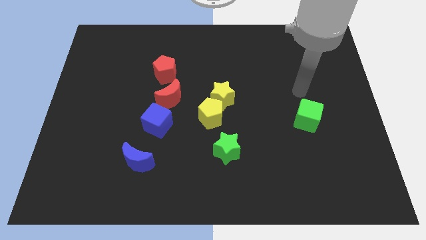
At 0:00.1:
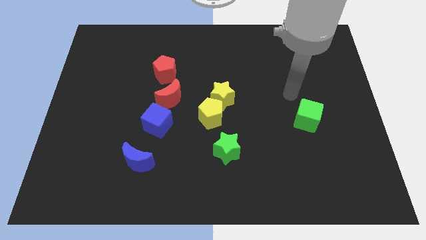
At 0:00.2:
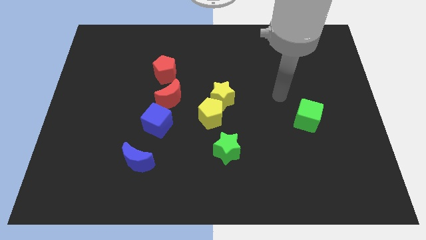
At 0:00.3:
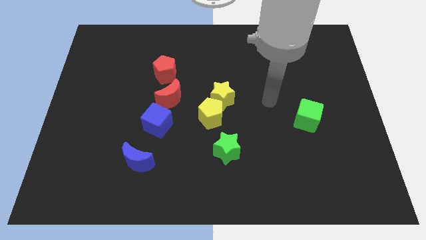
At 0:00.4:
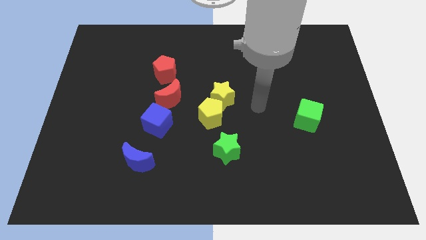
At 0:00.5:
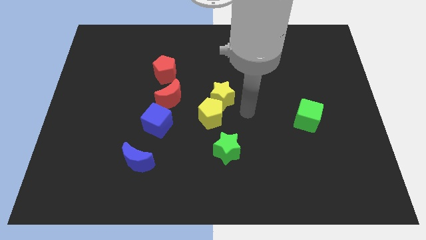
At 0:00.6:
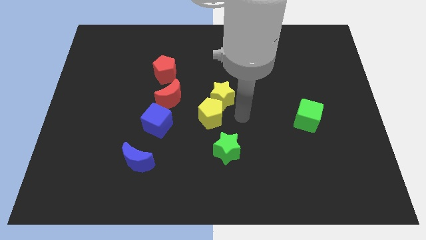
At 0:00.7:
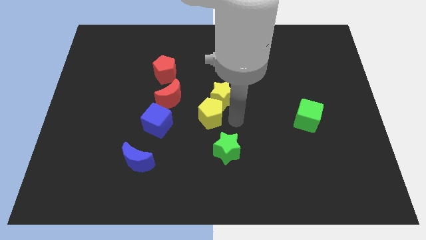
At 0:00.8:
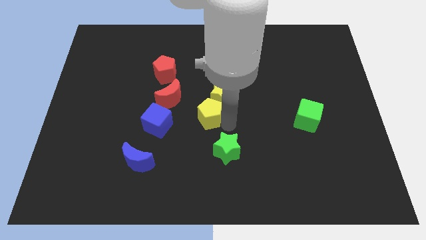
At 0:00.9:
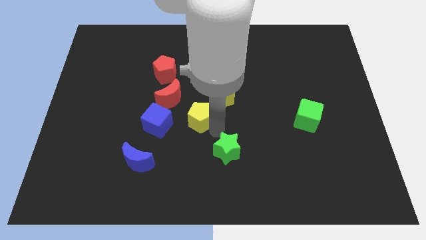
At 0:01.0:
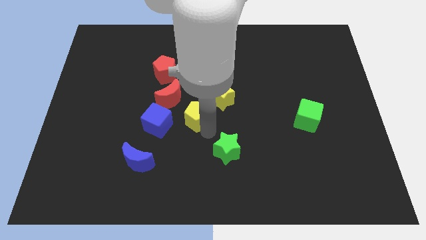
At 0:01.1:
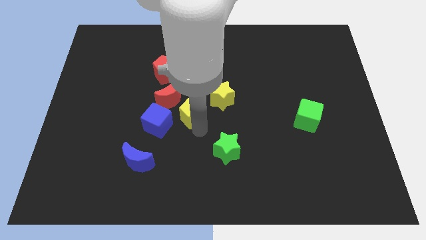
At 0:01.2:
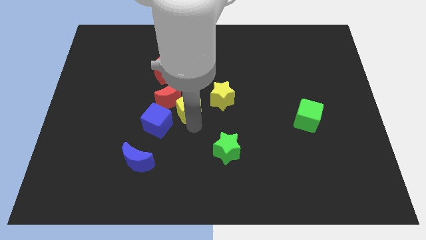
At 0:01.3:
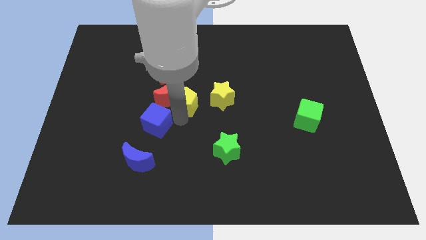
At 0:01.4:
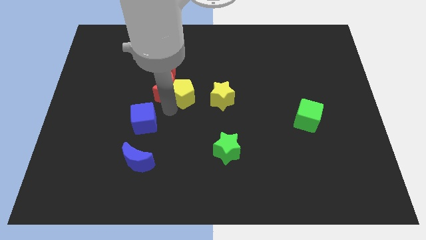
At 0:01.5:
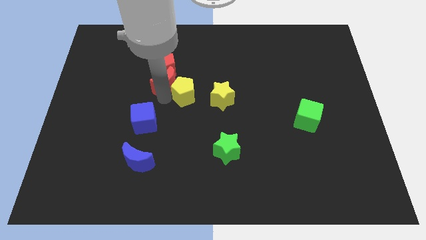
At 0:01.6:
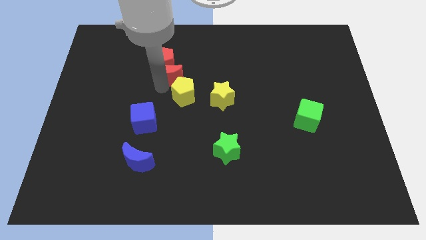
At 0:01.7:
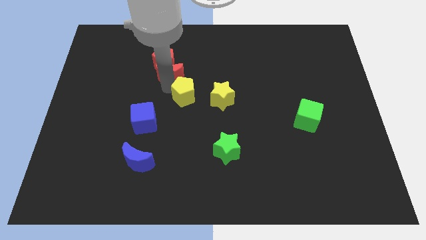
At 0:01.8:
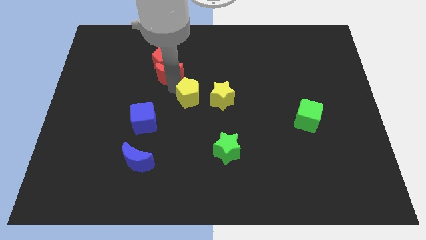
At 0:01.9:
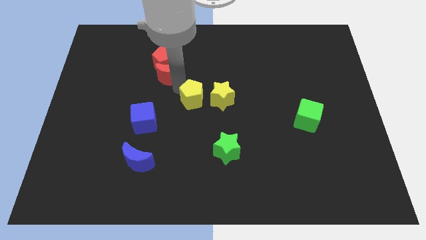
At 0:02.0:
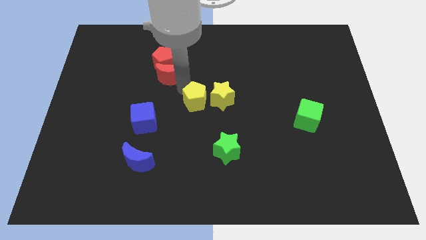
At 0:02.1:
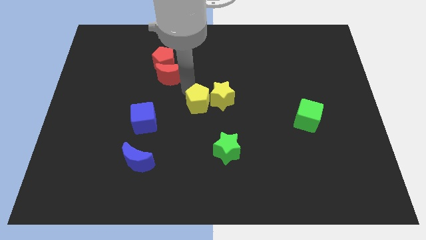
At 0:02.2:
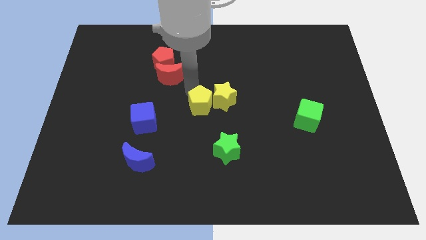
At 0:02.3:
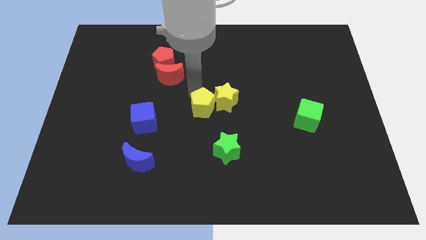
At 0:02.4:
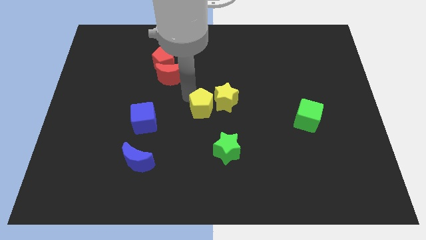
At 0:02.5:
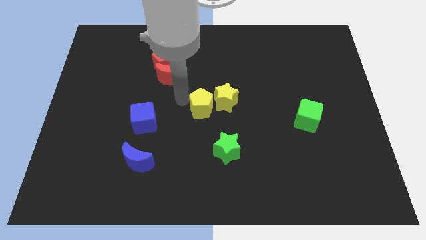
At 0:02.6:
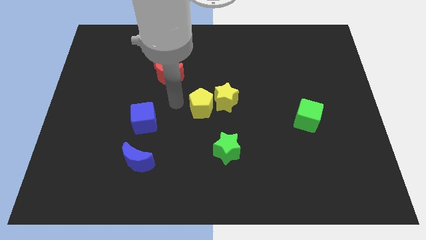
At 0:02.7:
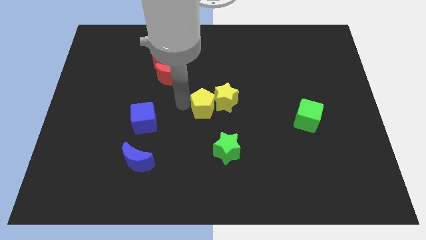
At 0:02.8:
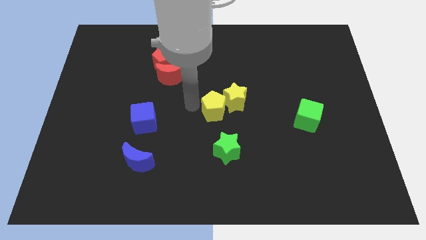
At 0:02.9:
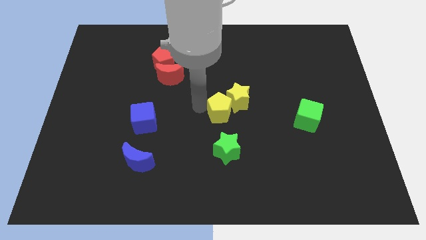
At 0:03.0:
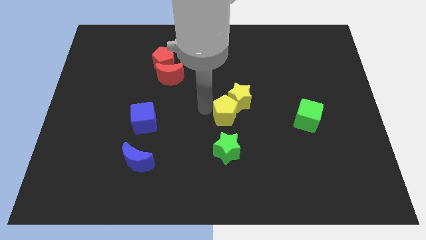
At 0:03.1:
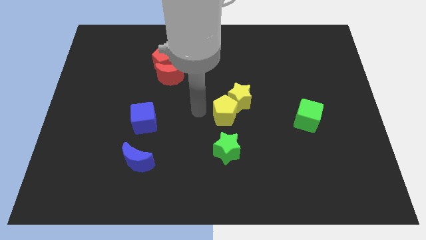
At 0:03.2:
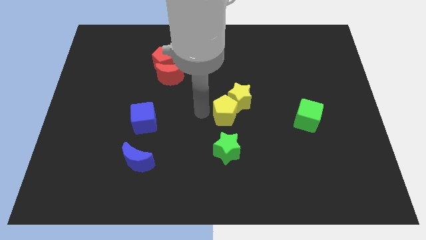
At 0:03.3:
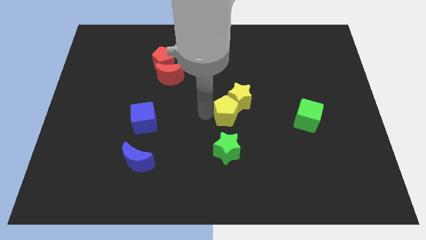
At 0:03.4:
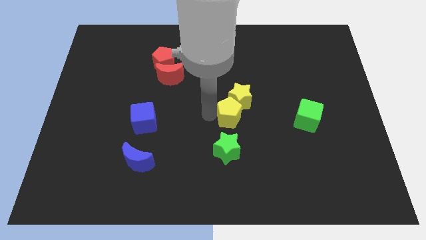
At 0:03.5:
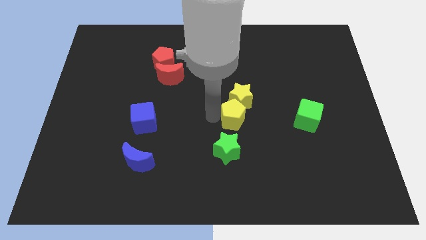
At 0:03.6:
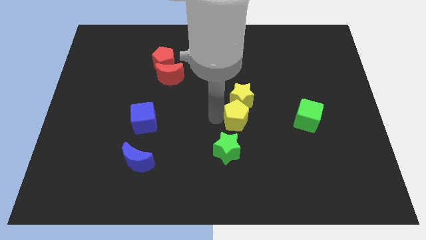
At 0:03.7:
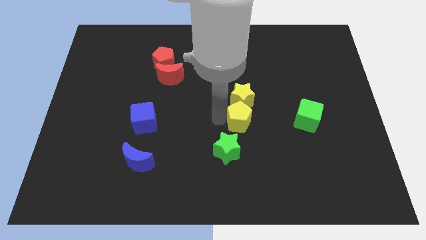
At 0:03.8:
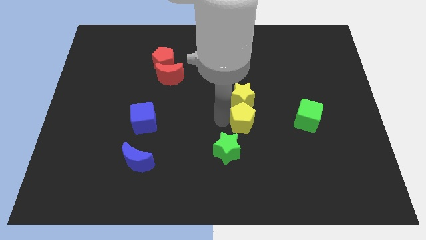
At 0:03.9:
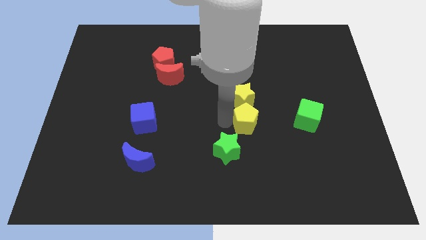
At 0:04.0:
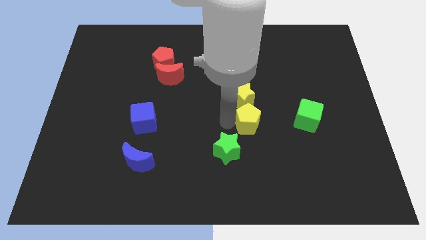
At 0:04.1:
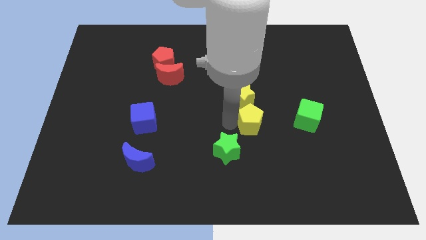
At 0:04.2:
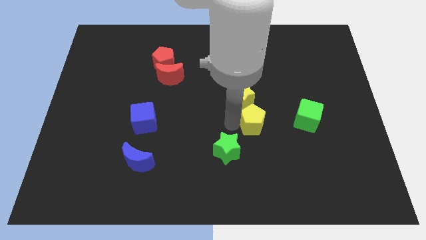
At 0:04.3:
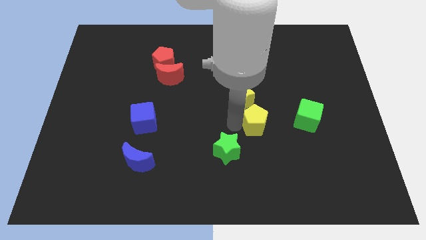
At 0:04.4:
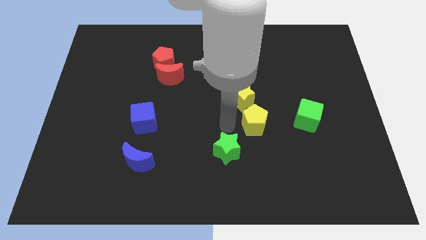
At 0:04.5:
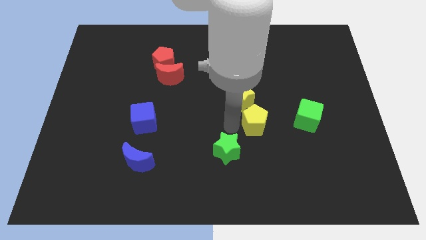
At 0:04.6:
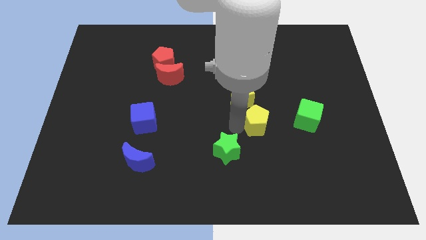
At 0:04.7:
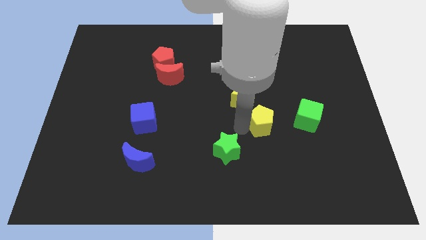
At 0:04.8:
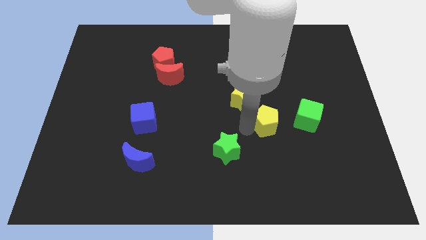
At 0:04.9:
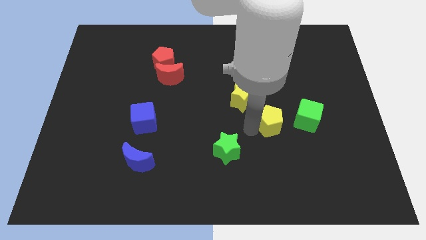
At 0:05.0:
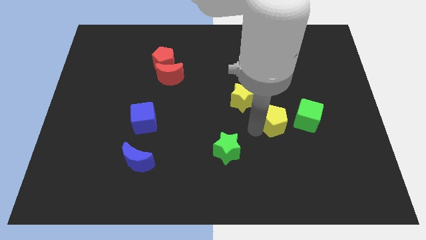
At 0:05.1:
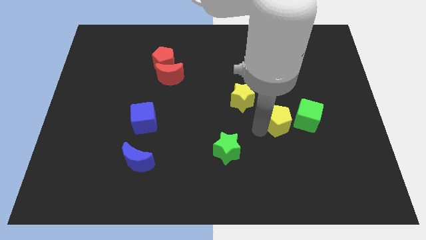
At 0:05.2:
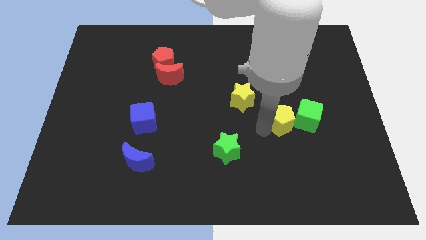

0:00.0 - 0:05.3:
slide the yellow pentagon next to the green cube

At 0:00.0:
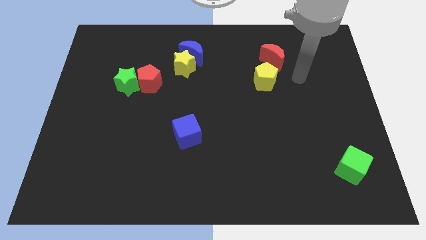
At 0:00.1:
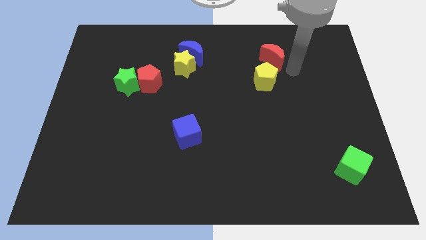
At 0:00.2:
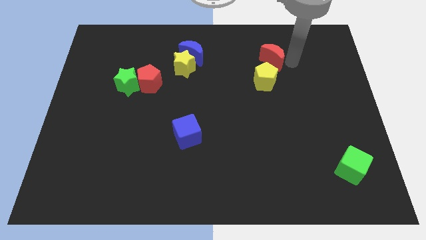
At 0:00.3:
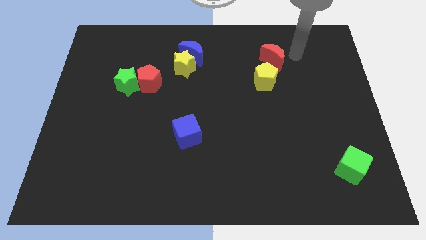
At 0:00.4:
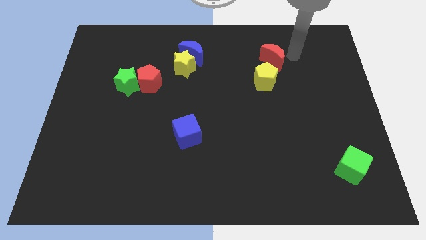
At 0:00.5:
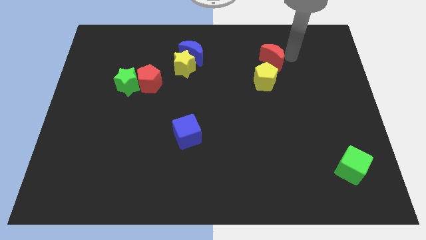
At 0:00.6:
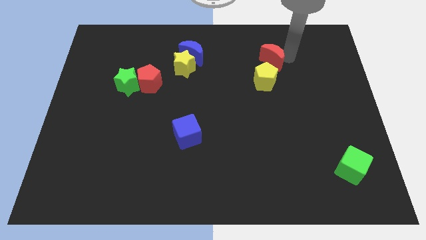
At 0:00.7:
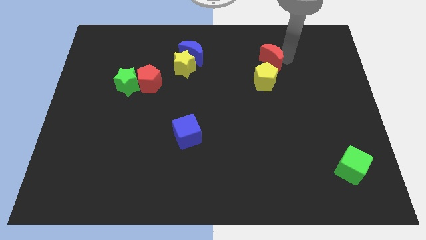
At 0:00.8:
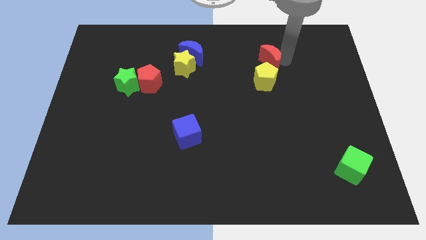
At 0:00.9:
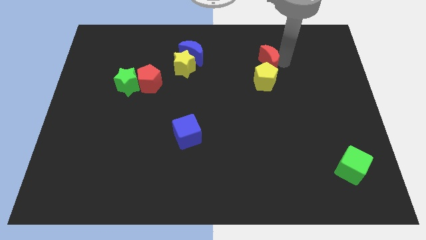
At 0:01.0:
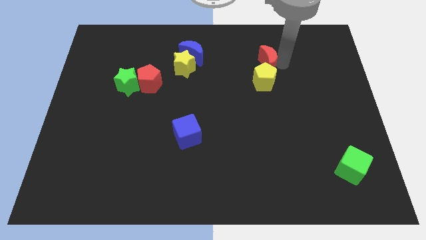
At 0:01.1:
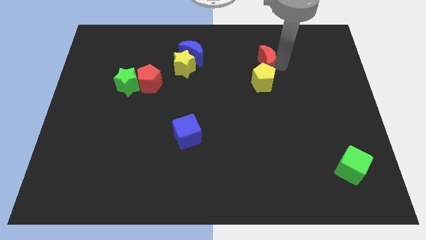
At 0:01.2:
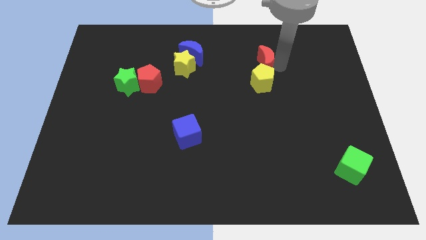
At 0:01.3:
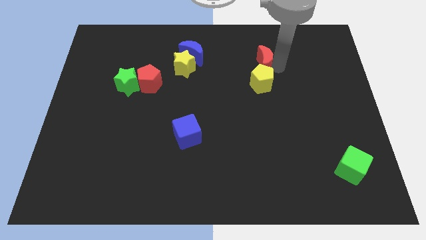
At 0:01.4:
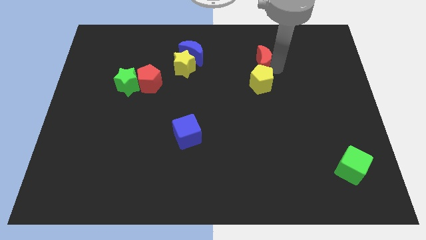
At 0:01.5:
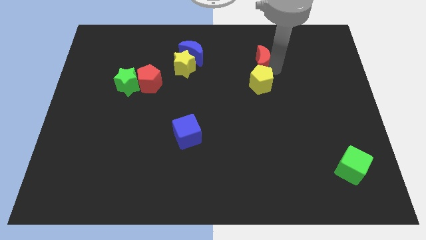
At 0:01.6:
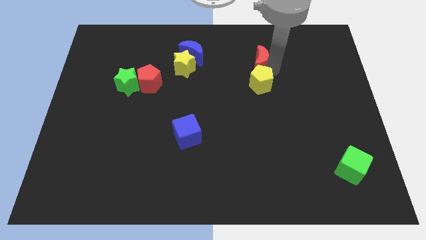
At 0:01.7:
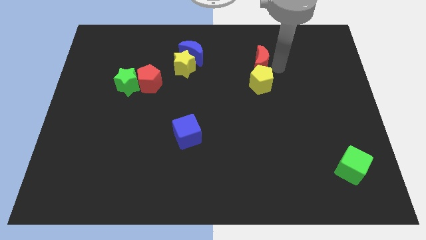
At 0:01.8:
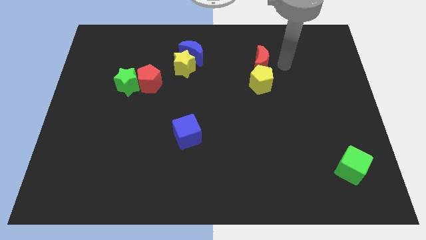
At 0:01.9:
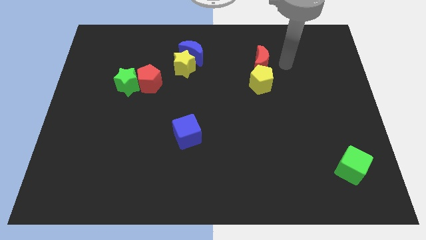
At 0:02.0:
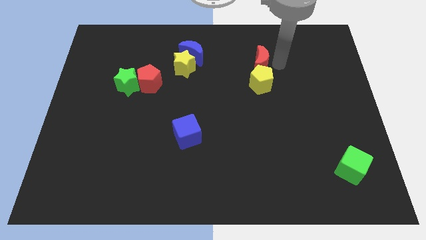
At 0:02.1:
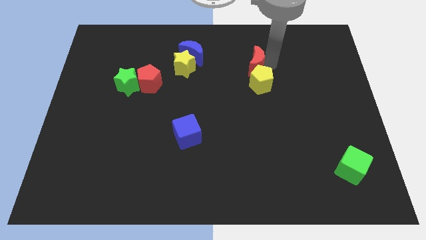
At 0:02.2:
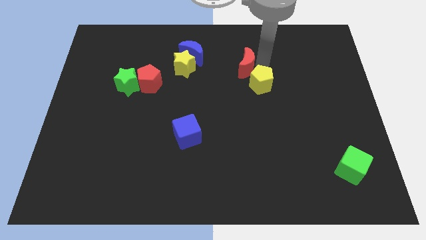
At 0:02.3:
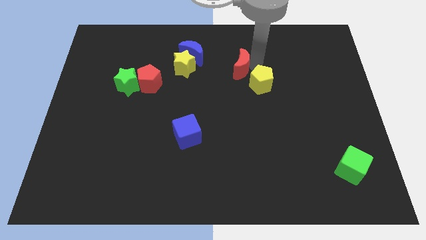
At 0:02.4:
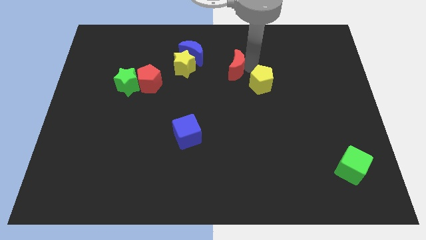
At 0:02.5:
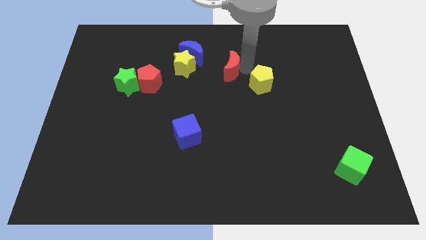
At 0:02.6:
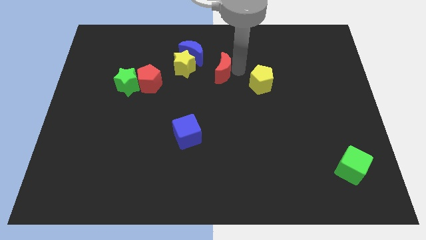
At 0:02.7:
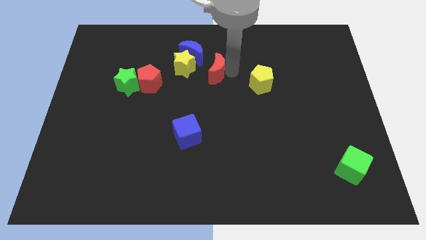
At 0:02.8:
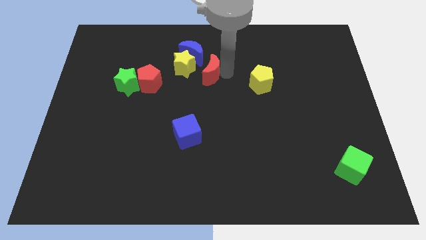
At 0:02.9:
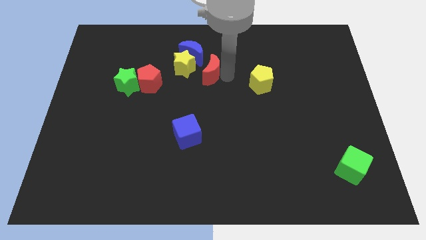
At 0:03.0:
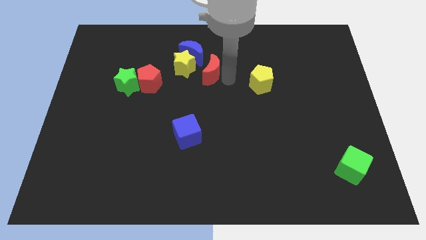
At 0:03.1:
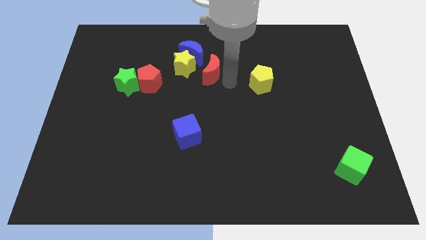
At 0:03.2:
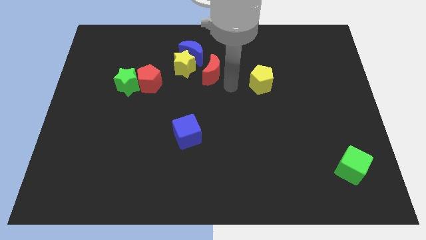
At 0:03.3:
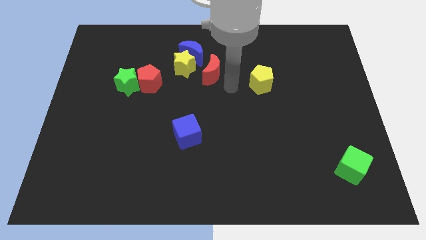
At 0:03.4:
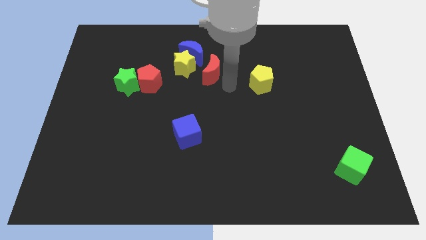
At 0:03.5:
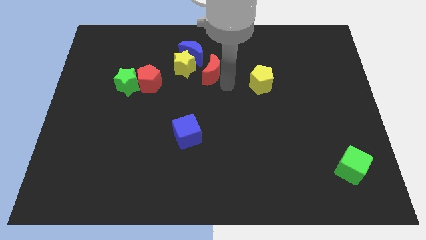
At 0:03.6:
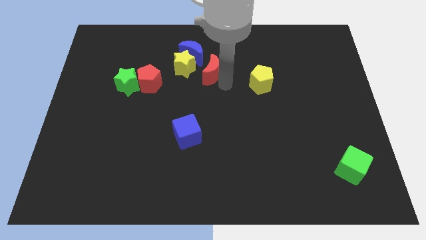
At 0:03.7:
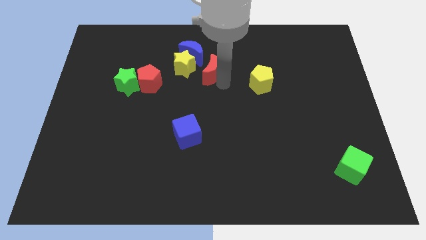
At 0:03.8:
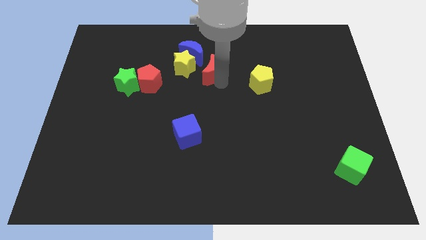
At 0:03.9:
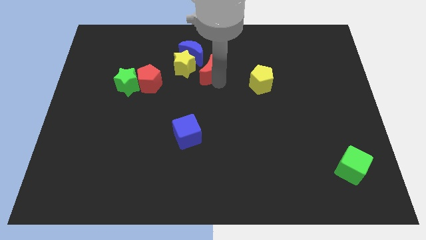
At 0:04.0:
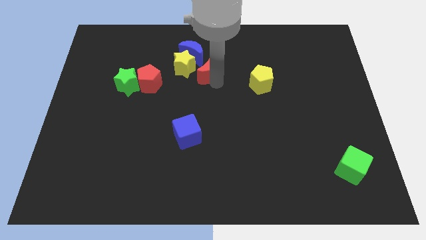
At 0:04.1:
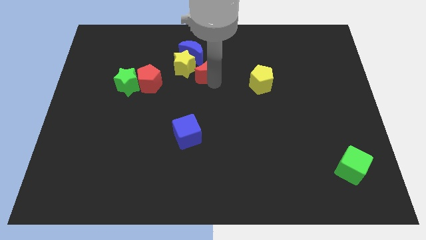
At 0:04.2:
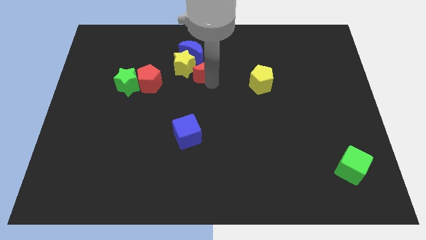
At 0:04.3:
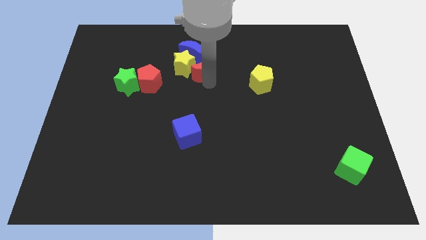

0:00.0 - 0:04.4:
push the red moon next to the yellow star
